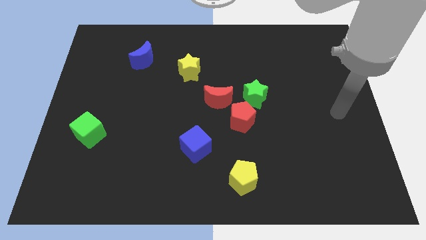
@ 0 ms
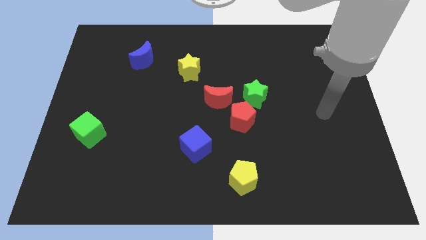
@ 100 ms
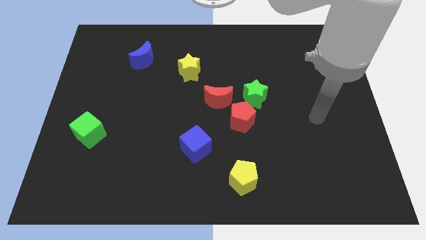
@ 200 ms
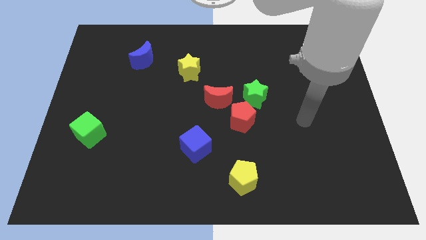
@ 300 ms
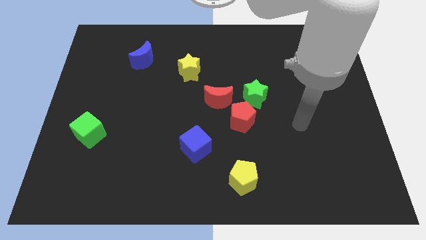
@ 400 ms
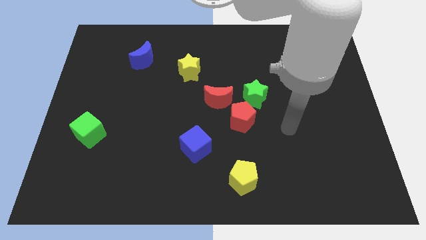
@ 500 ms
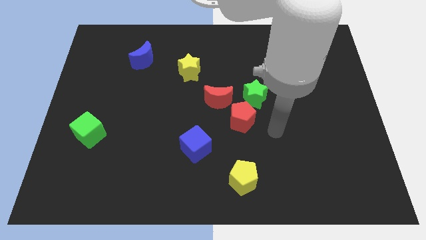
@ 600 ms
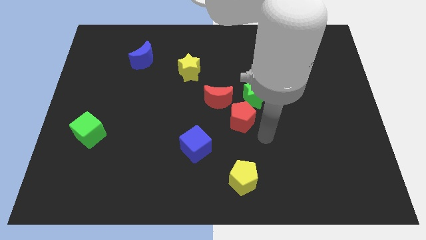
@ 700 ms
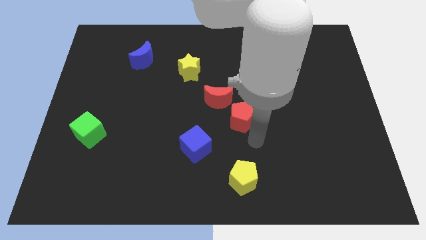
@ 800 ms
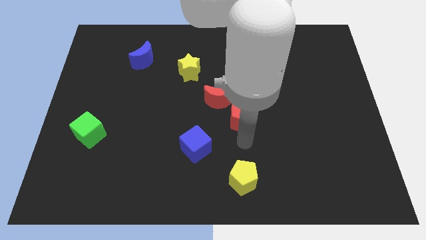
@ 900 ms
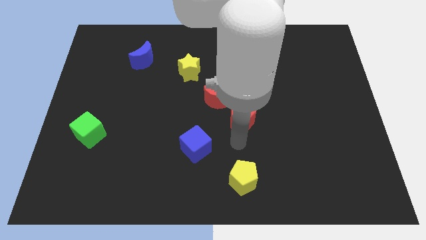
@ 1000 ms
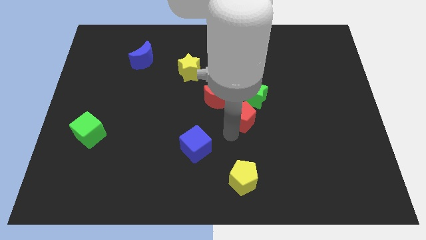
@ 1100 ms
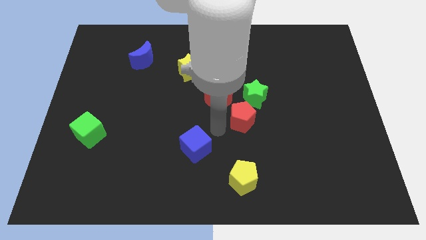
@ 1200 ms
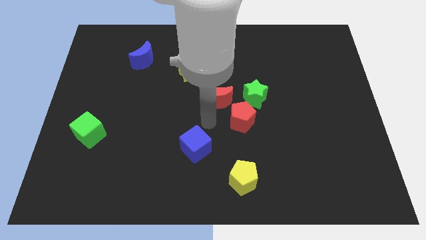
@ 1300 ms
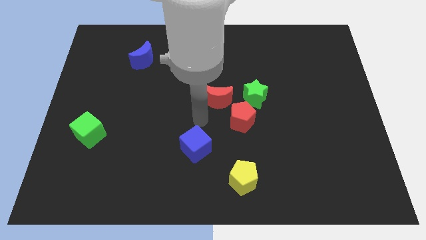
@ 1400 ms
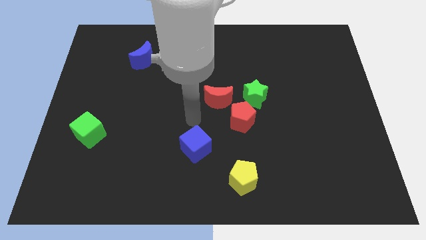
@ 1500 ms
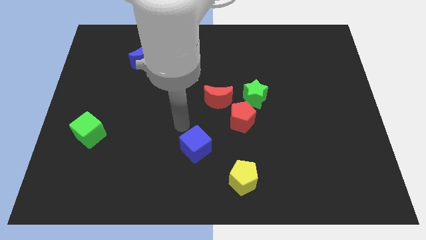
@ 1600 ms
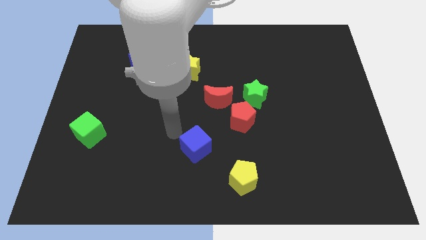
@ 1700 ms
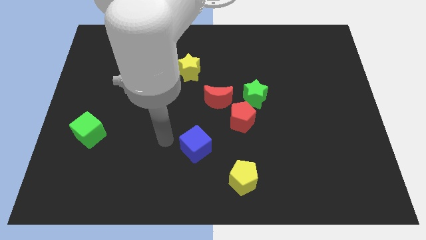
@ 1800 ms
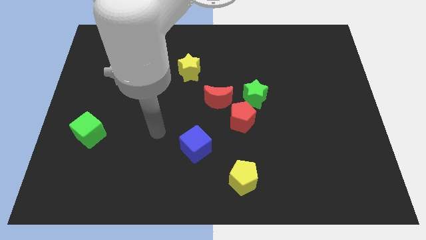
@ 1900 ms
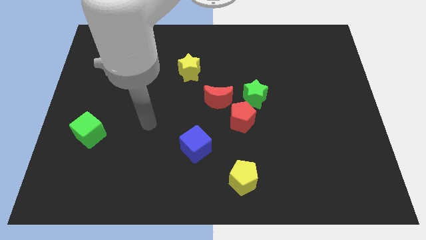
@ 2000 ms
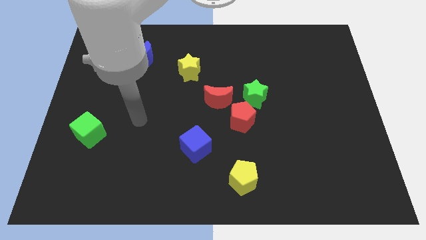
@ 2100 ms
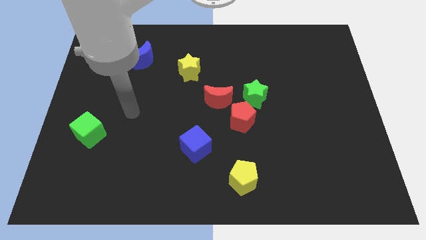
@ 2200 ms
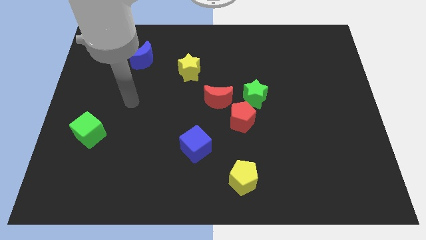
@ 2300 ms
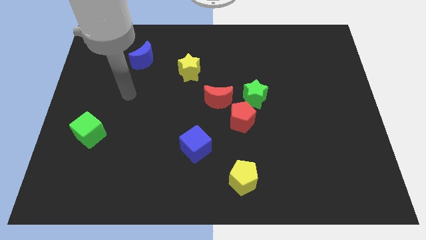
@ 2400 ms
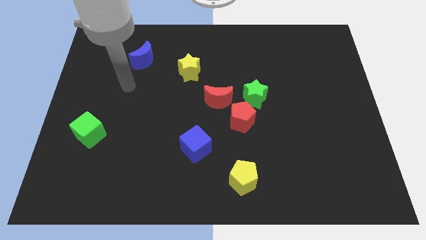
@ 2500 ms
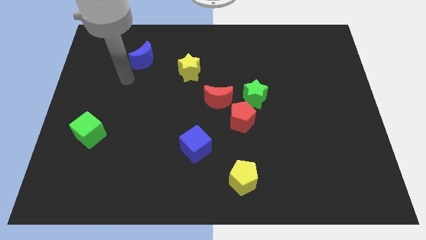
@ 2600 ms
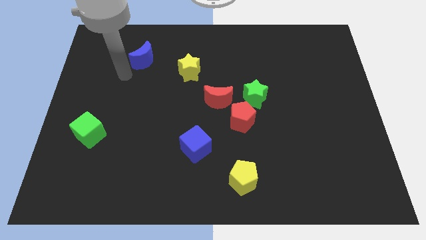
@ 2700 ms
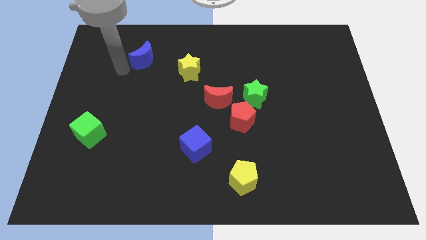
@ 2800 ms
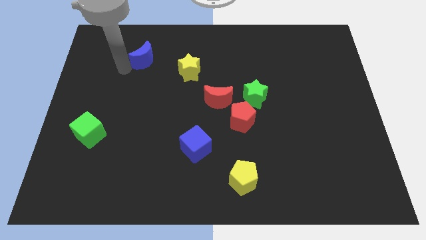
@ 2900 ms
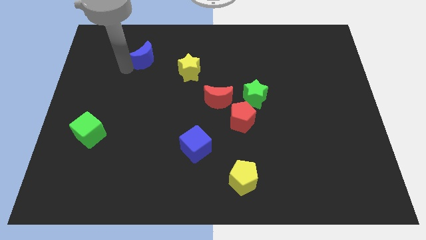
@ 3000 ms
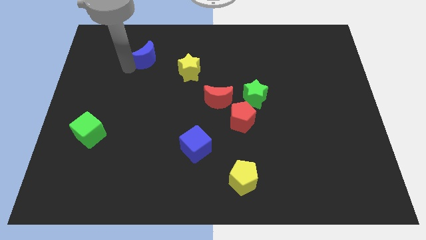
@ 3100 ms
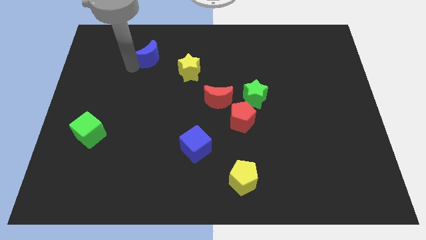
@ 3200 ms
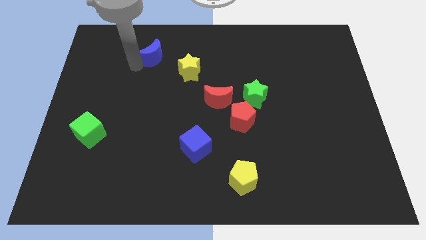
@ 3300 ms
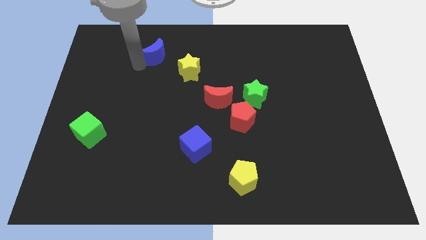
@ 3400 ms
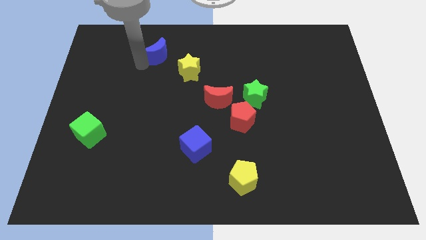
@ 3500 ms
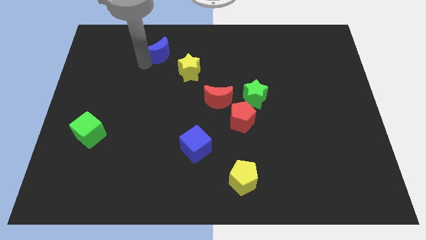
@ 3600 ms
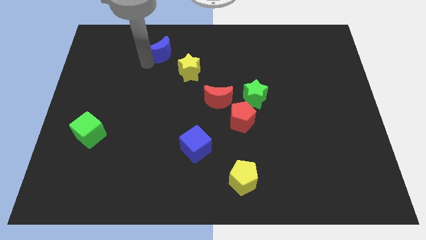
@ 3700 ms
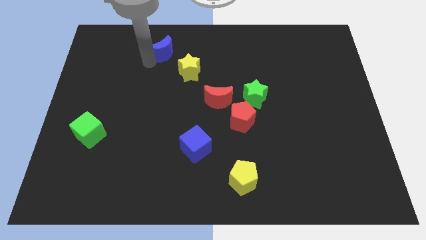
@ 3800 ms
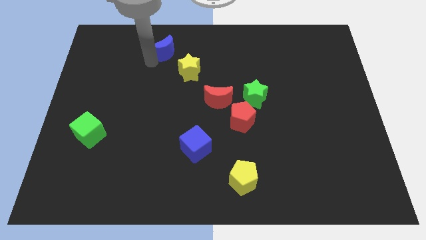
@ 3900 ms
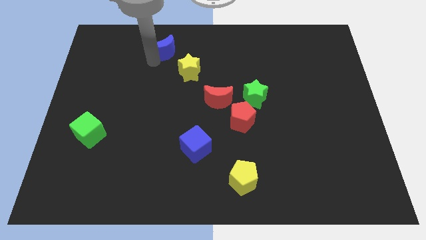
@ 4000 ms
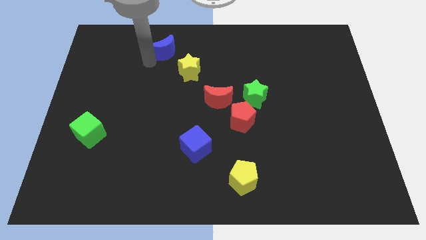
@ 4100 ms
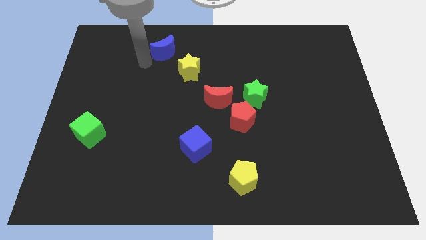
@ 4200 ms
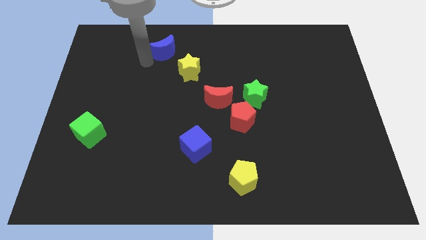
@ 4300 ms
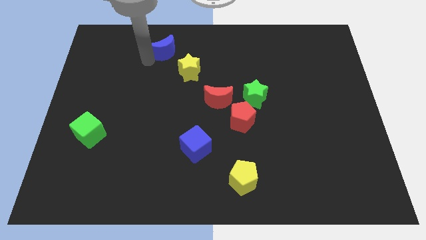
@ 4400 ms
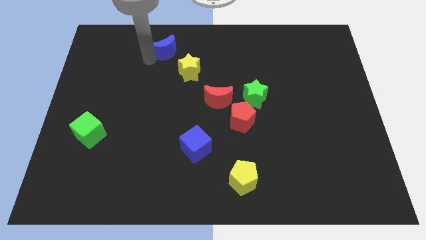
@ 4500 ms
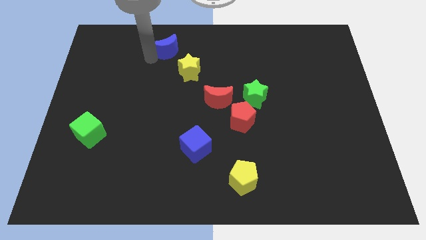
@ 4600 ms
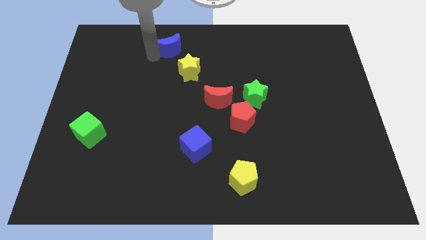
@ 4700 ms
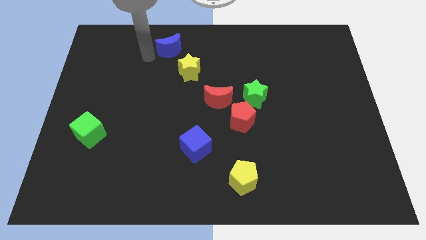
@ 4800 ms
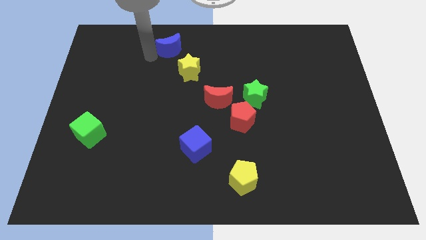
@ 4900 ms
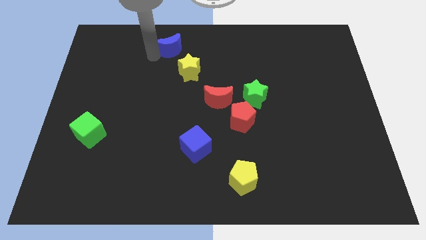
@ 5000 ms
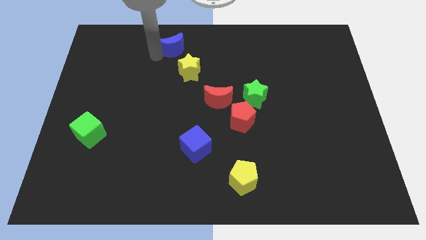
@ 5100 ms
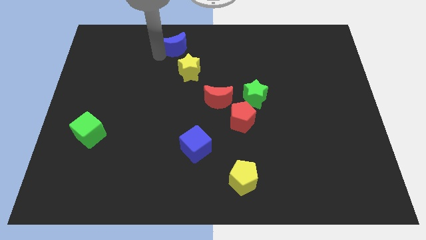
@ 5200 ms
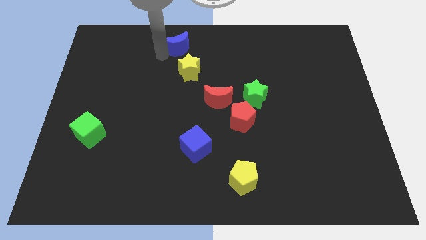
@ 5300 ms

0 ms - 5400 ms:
put the blue moon to the top

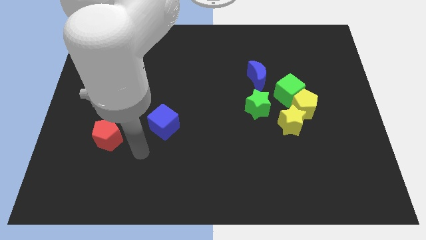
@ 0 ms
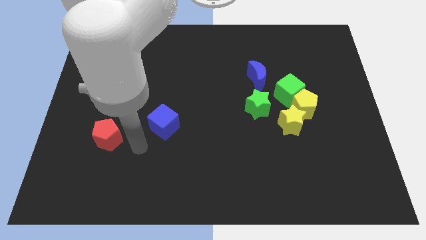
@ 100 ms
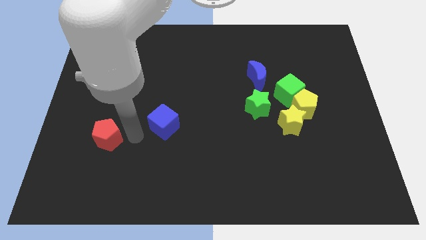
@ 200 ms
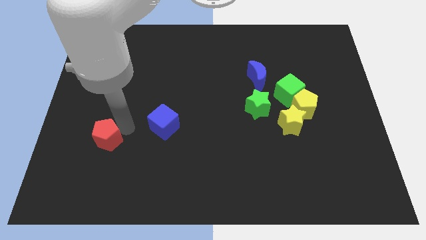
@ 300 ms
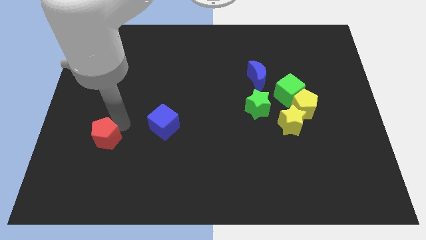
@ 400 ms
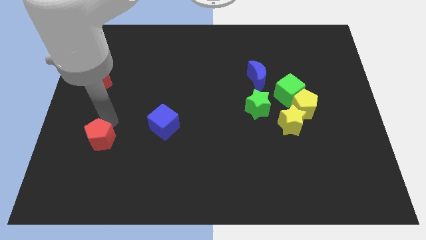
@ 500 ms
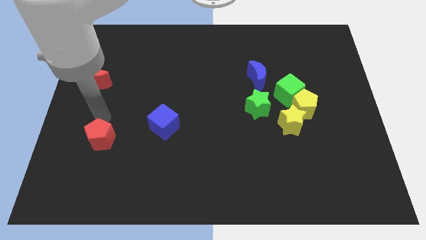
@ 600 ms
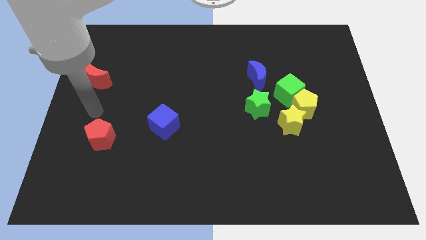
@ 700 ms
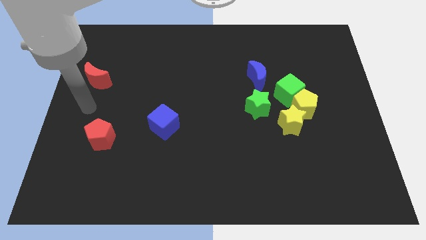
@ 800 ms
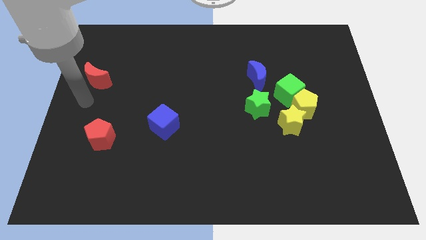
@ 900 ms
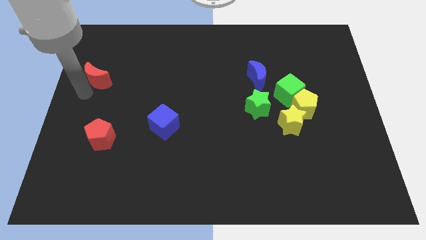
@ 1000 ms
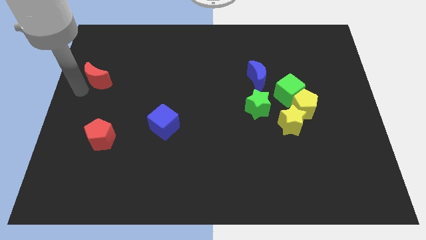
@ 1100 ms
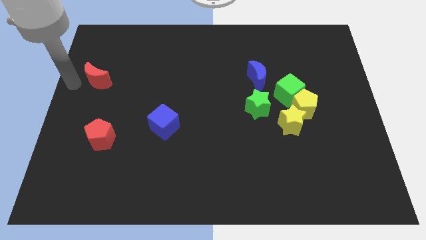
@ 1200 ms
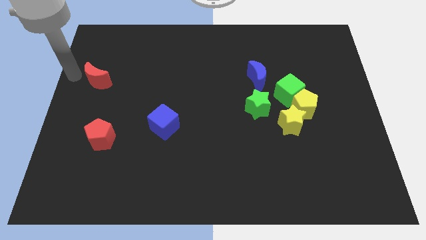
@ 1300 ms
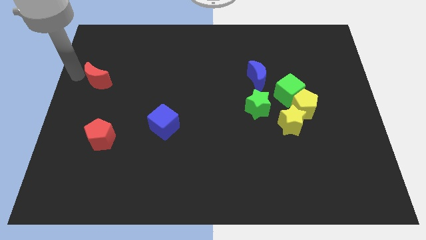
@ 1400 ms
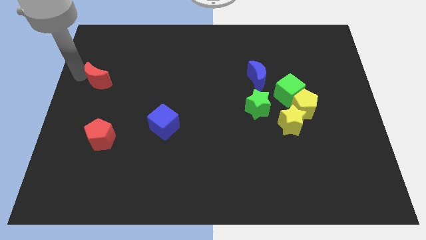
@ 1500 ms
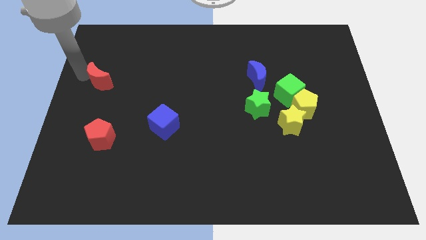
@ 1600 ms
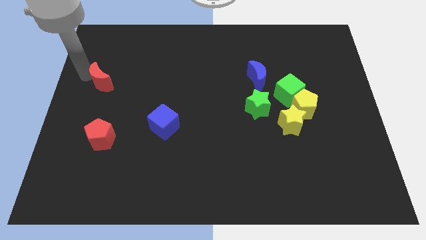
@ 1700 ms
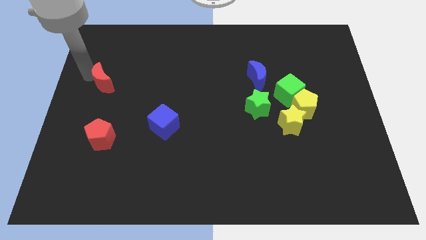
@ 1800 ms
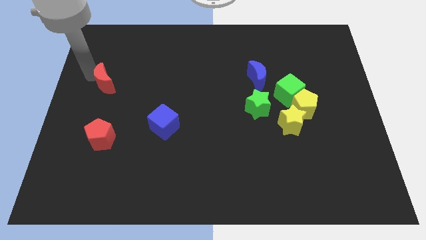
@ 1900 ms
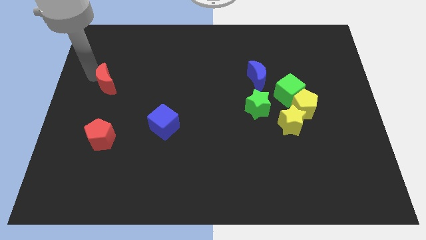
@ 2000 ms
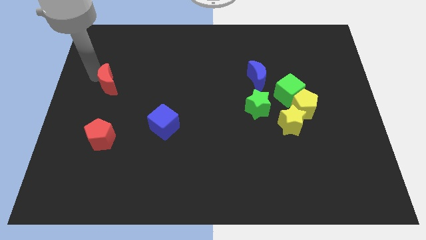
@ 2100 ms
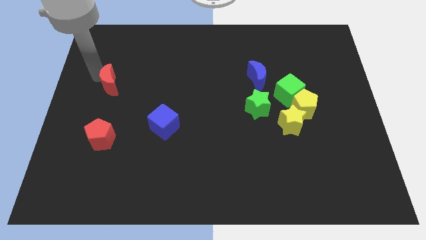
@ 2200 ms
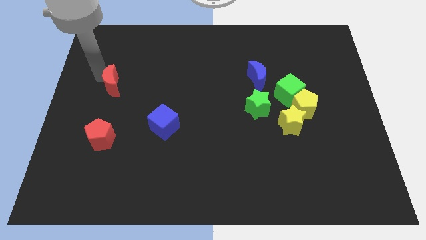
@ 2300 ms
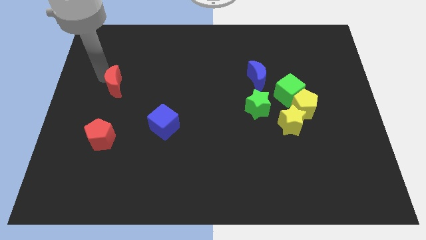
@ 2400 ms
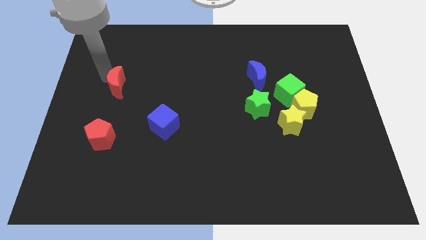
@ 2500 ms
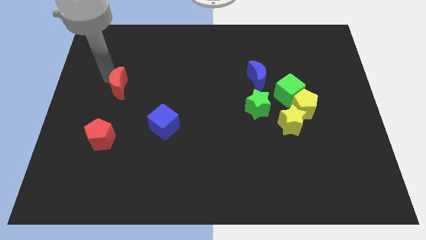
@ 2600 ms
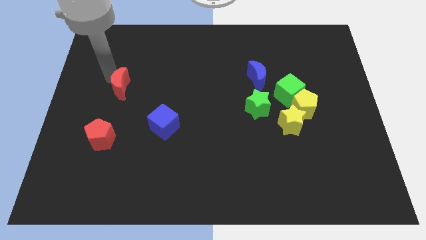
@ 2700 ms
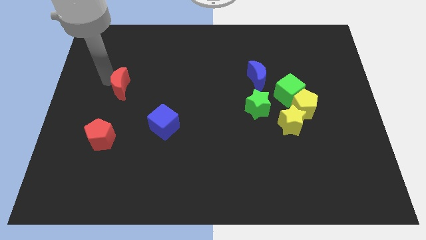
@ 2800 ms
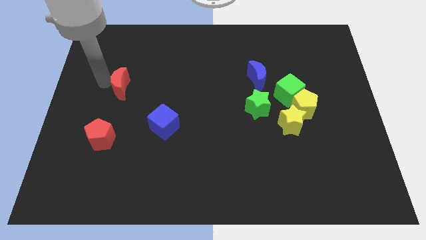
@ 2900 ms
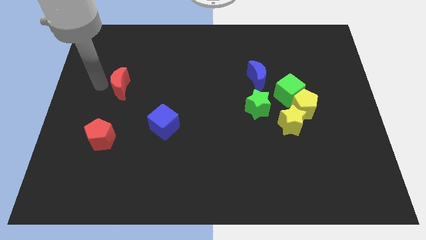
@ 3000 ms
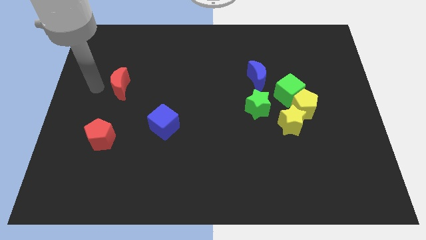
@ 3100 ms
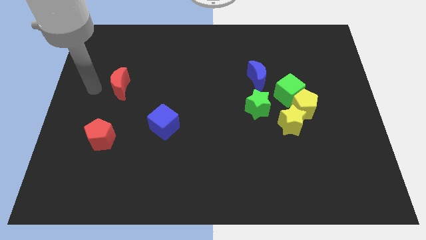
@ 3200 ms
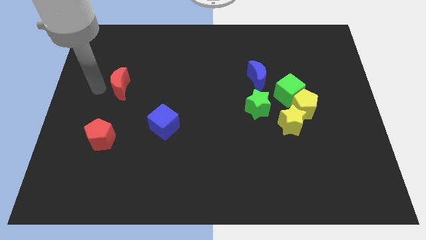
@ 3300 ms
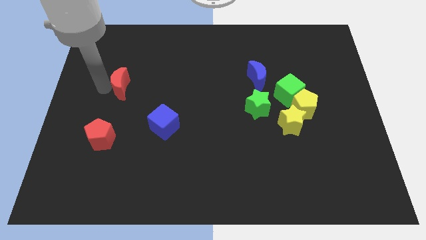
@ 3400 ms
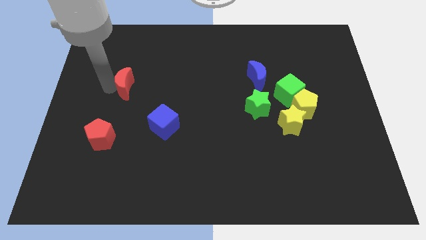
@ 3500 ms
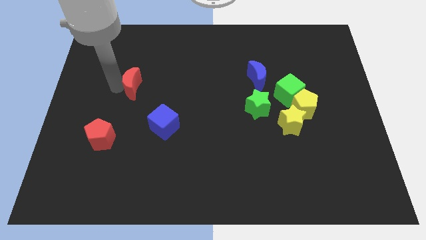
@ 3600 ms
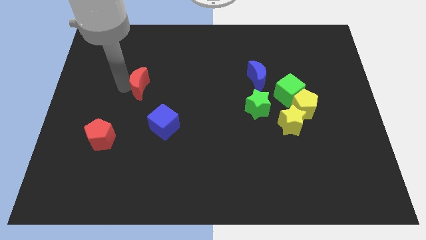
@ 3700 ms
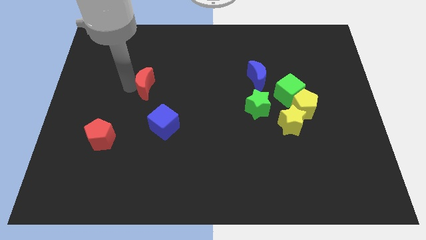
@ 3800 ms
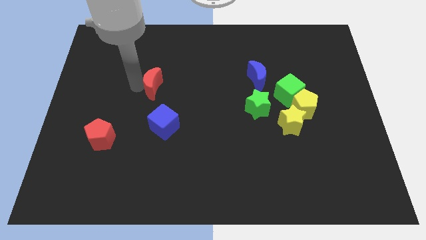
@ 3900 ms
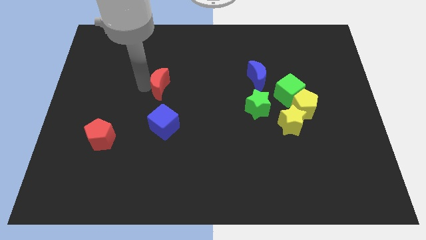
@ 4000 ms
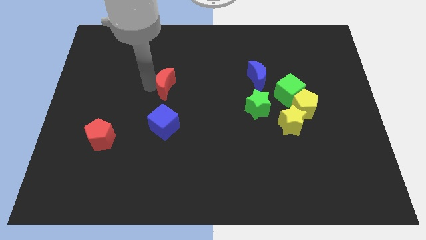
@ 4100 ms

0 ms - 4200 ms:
put the red moon to the center
